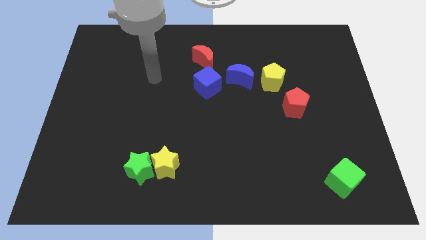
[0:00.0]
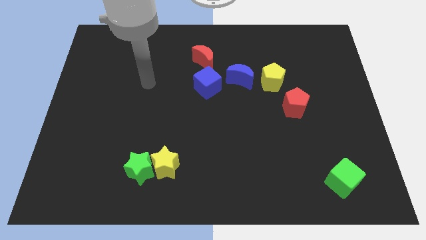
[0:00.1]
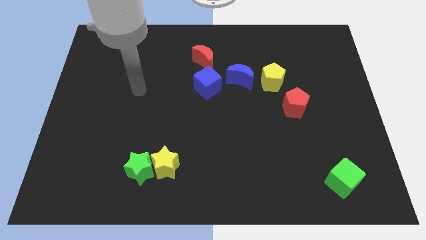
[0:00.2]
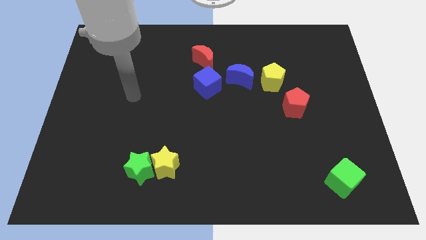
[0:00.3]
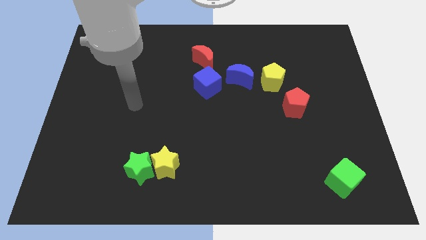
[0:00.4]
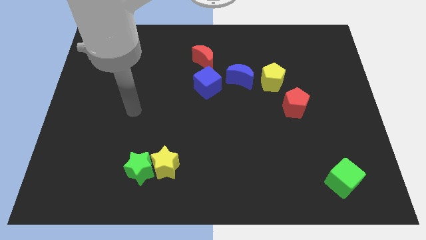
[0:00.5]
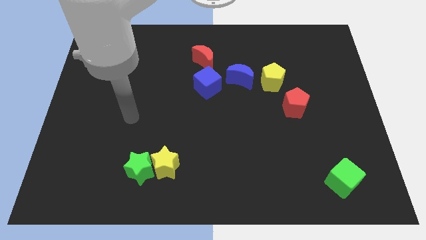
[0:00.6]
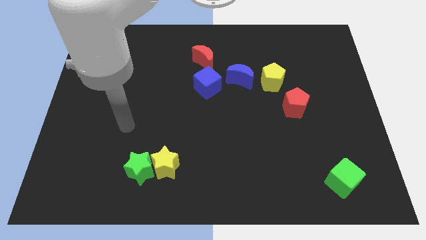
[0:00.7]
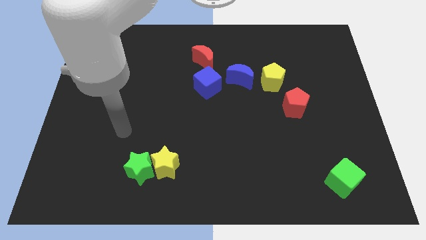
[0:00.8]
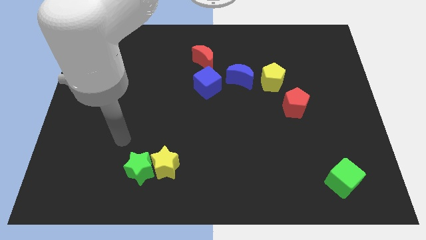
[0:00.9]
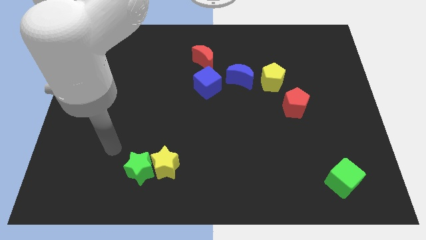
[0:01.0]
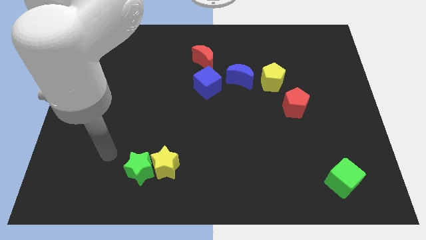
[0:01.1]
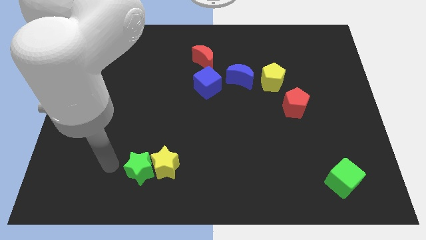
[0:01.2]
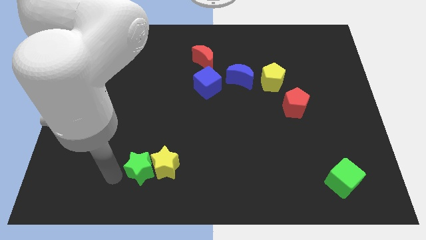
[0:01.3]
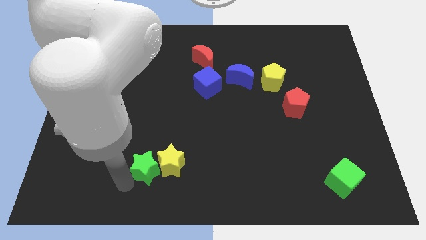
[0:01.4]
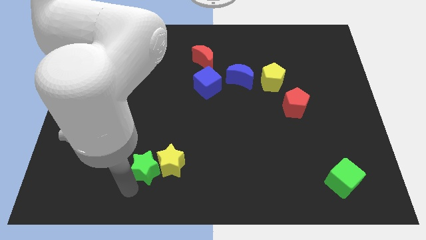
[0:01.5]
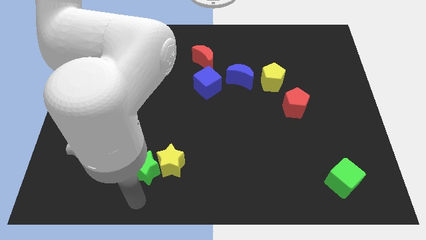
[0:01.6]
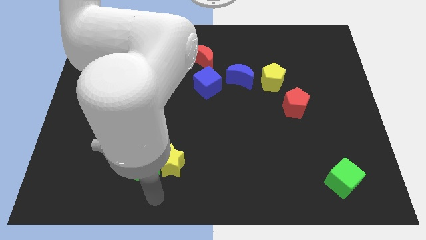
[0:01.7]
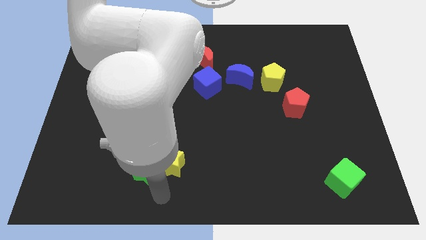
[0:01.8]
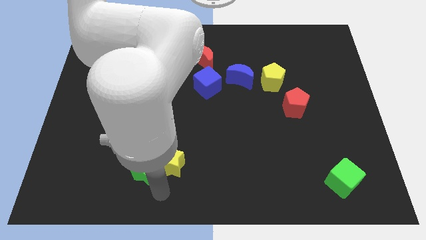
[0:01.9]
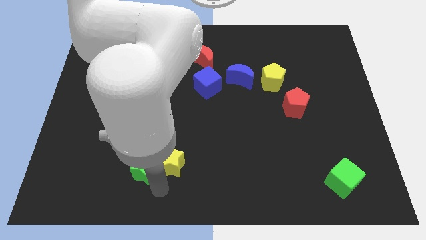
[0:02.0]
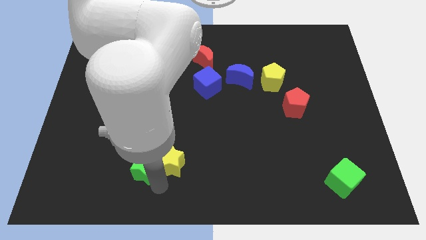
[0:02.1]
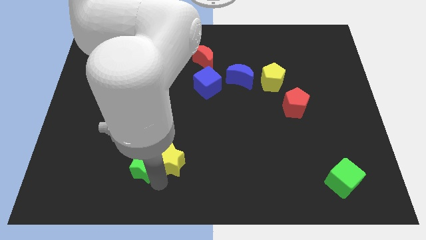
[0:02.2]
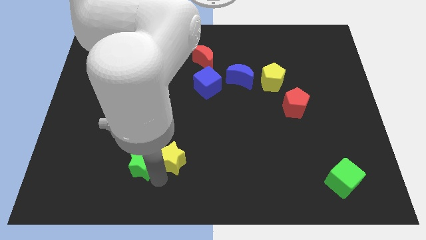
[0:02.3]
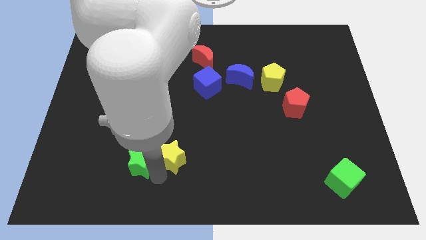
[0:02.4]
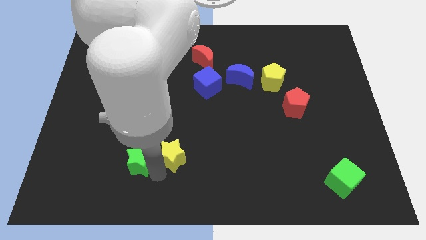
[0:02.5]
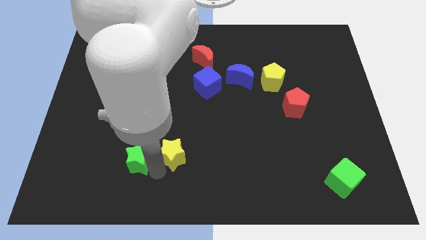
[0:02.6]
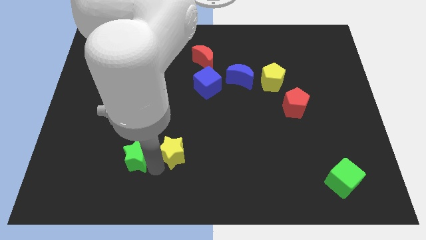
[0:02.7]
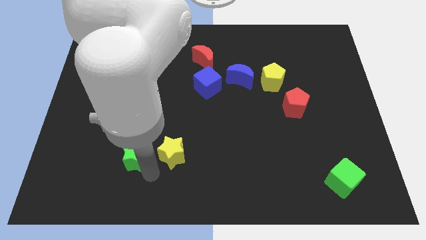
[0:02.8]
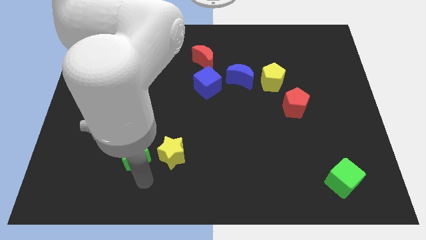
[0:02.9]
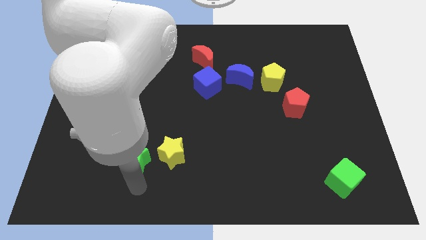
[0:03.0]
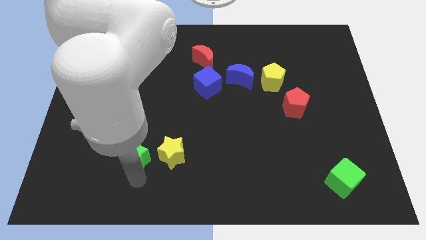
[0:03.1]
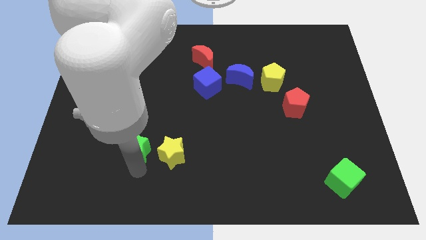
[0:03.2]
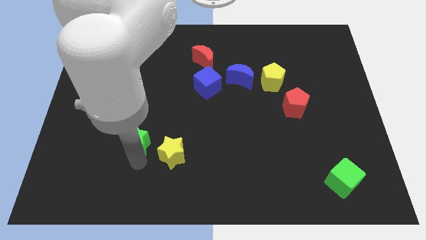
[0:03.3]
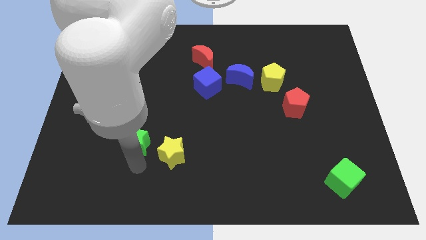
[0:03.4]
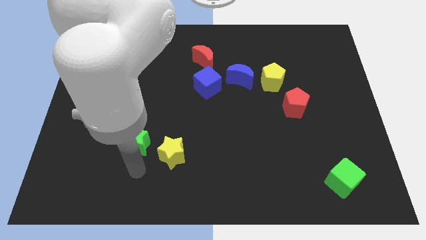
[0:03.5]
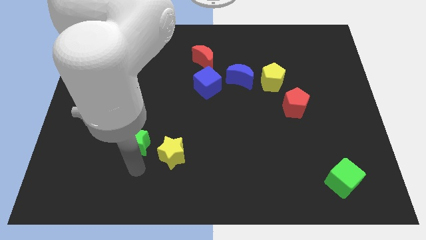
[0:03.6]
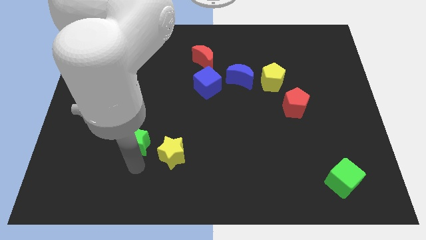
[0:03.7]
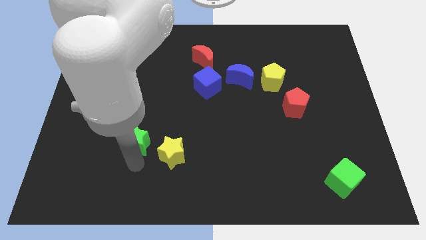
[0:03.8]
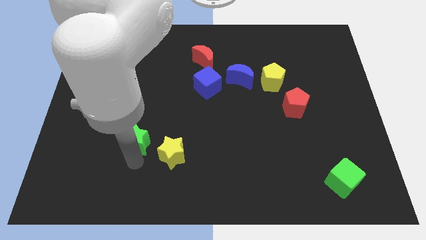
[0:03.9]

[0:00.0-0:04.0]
slide the green star a little upwards

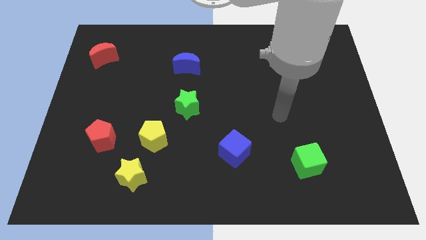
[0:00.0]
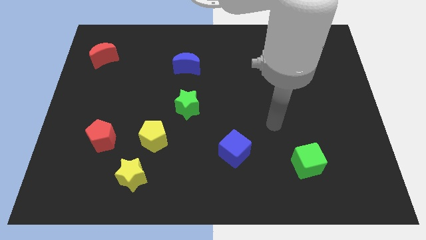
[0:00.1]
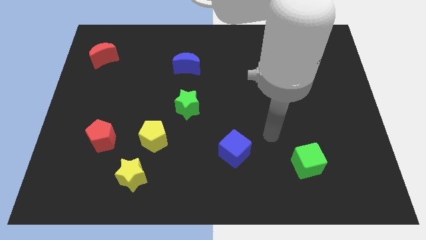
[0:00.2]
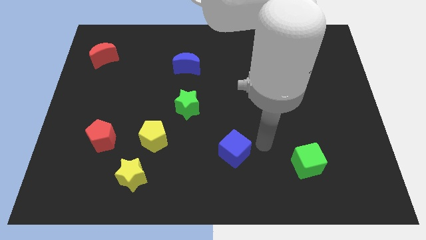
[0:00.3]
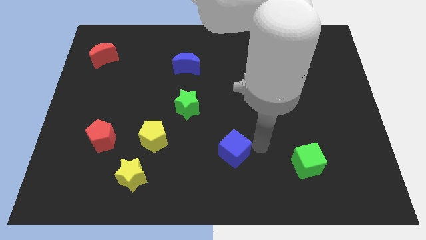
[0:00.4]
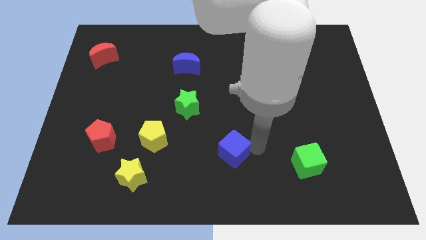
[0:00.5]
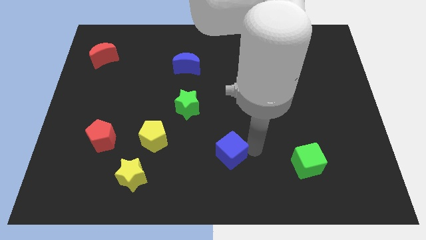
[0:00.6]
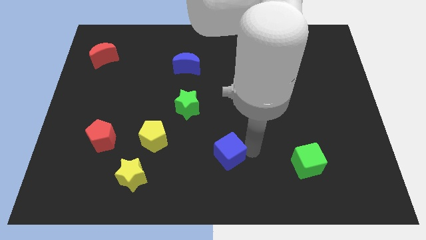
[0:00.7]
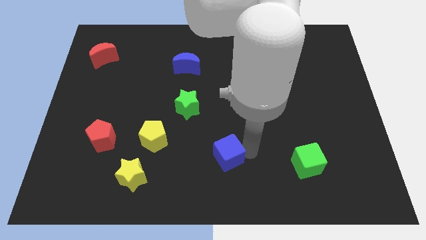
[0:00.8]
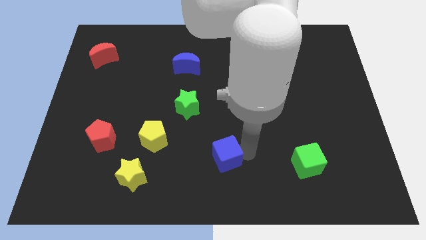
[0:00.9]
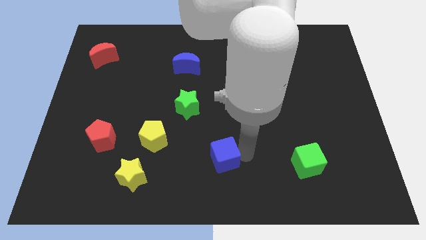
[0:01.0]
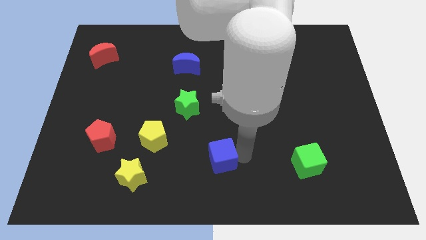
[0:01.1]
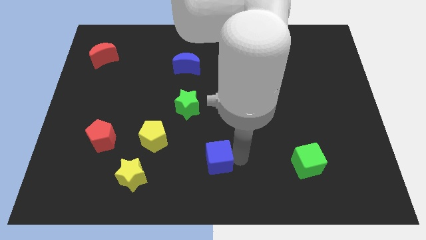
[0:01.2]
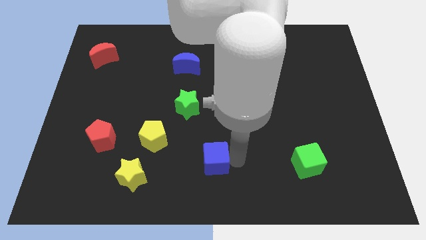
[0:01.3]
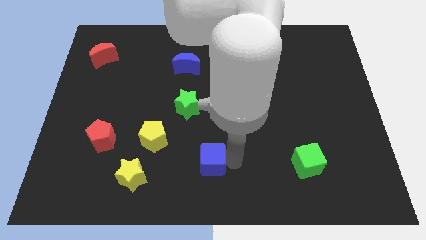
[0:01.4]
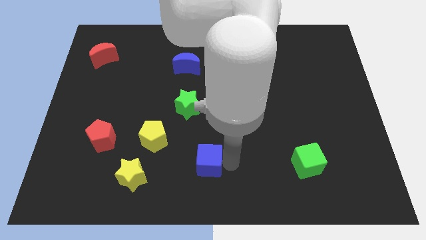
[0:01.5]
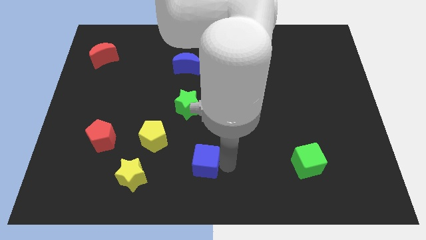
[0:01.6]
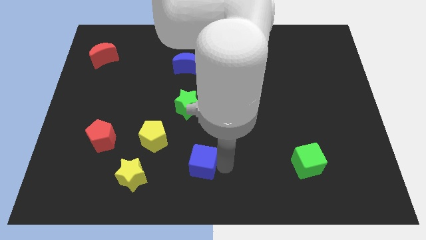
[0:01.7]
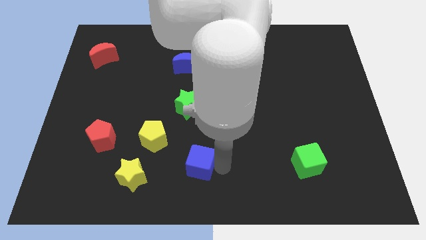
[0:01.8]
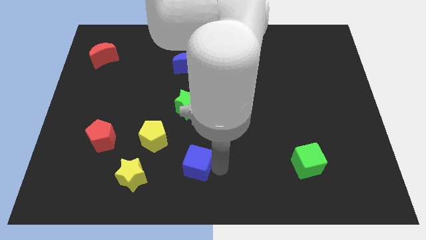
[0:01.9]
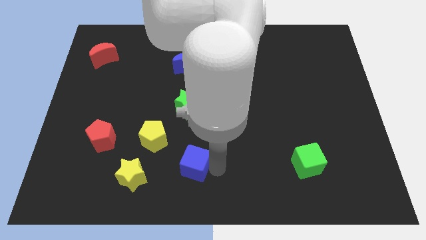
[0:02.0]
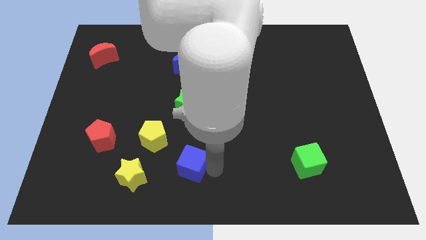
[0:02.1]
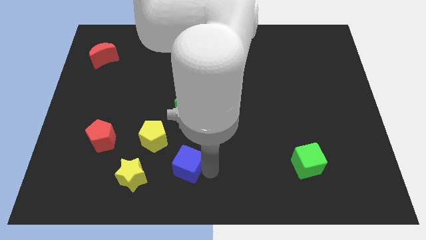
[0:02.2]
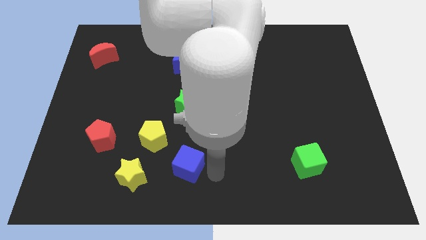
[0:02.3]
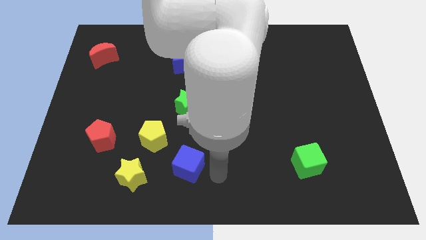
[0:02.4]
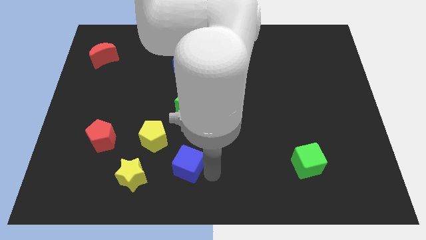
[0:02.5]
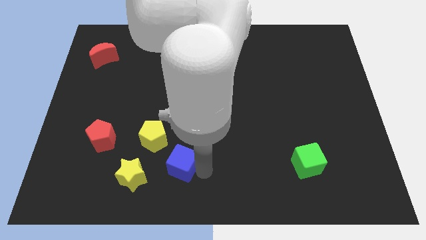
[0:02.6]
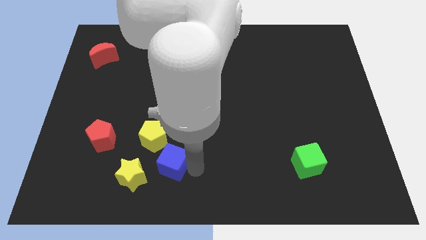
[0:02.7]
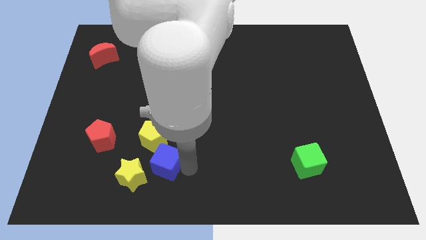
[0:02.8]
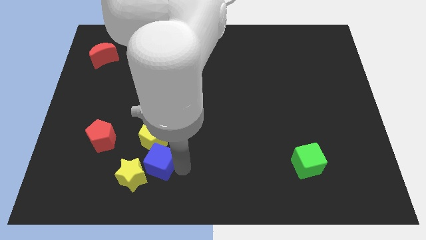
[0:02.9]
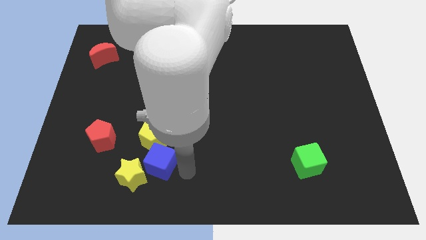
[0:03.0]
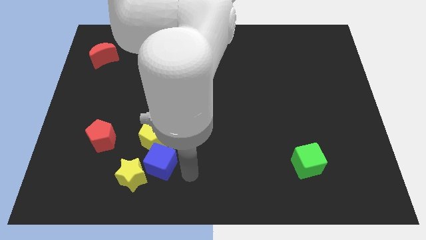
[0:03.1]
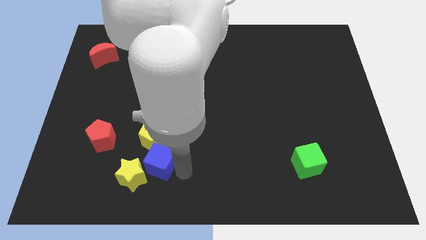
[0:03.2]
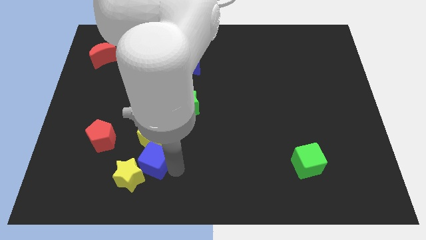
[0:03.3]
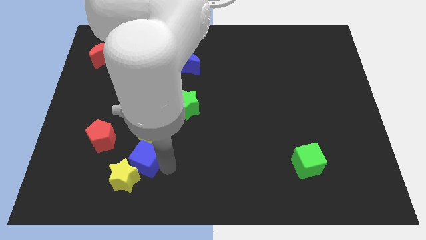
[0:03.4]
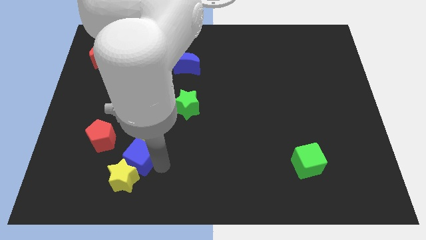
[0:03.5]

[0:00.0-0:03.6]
move the blue cube to the left

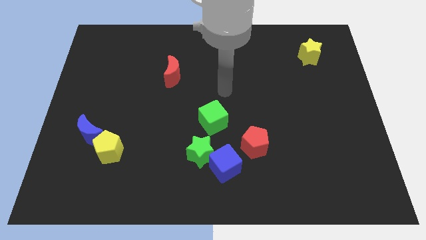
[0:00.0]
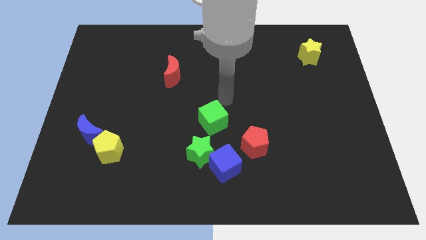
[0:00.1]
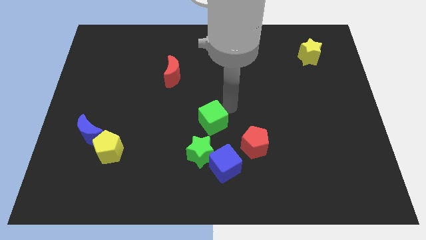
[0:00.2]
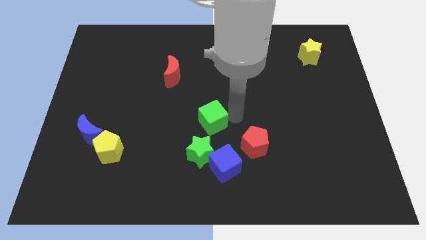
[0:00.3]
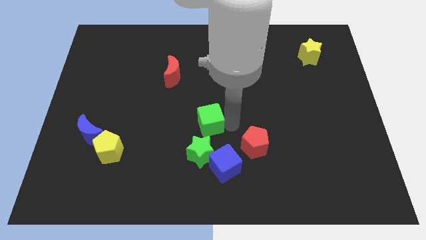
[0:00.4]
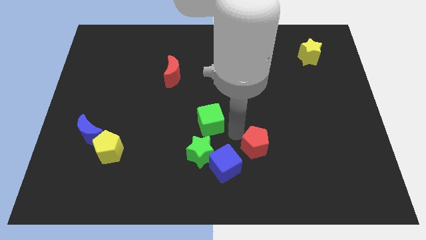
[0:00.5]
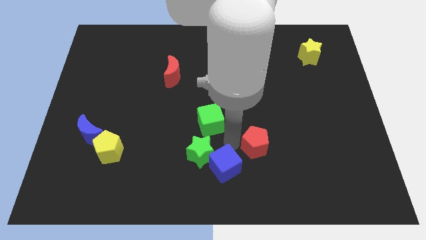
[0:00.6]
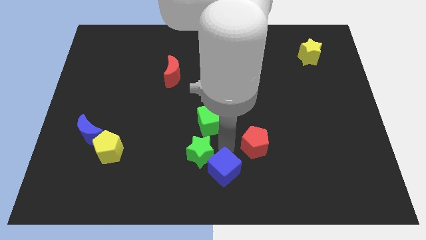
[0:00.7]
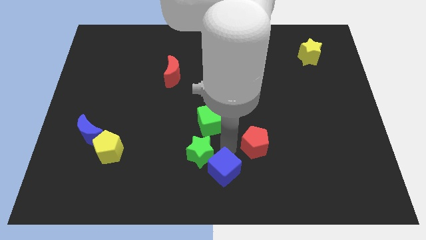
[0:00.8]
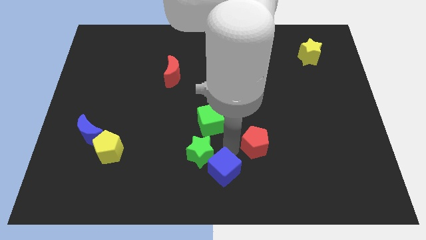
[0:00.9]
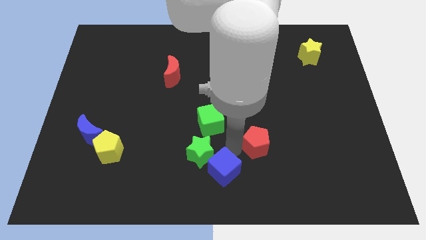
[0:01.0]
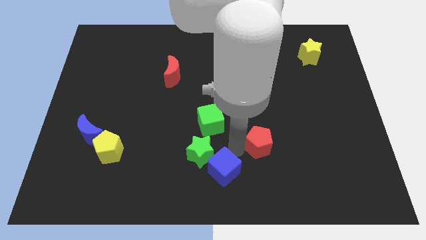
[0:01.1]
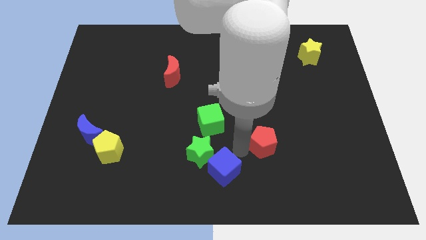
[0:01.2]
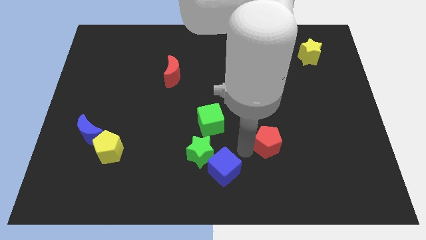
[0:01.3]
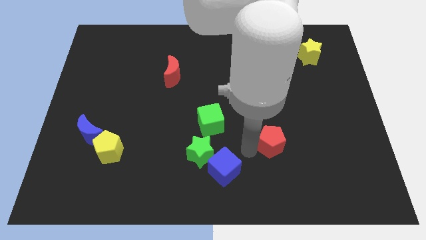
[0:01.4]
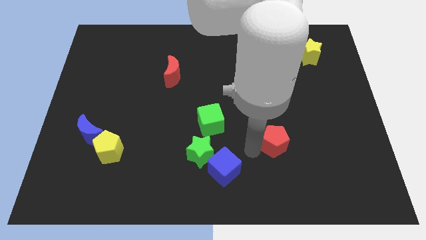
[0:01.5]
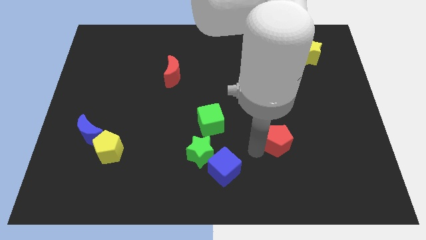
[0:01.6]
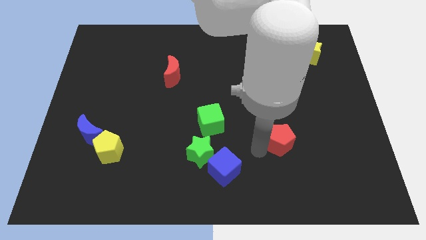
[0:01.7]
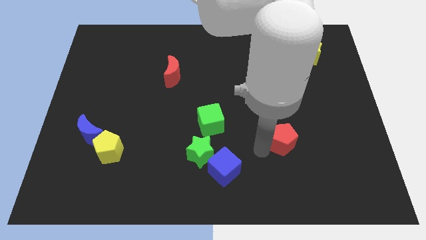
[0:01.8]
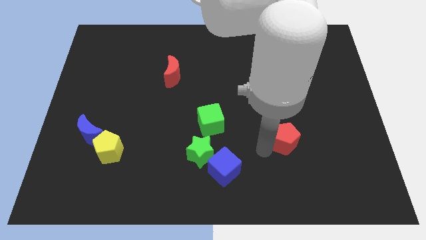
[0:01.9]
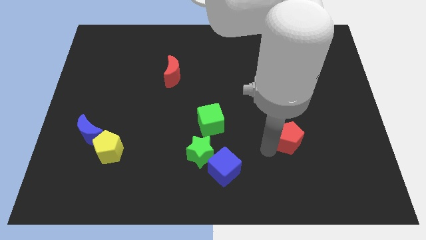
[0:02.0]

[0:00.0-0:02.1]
push the red pentagon a bit to the right
